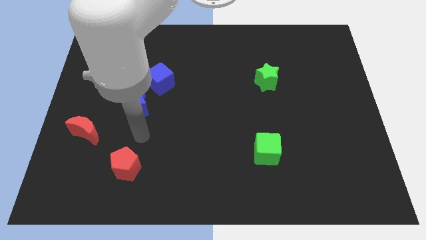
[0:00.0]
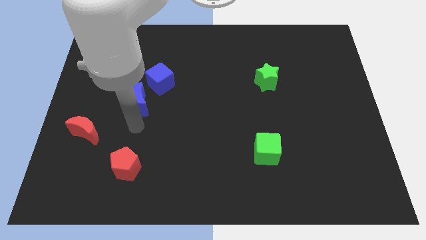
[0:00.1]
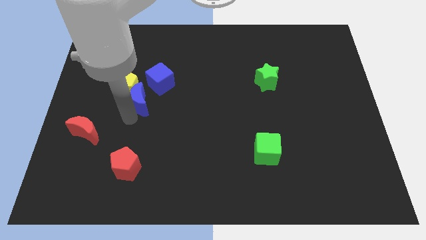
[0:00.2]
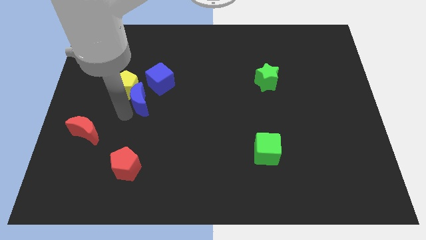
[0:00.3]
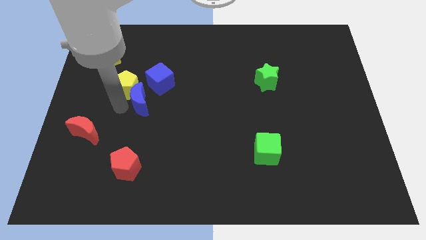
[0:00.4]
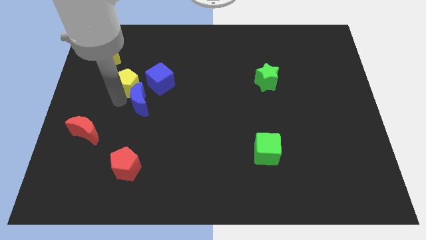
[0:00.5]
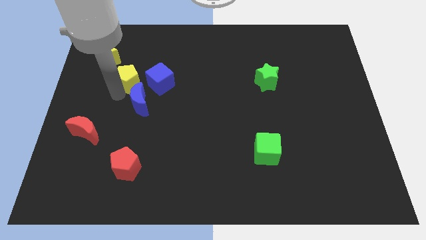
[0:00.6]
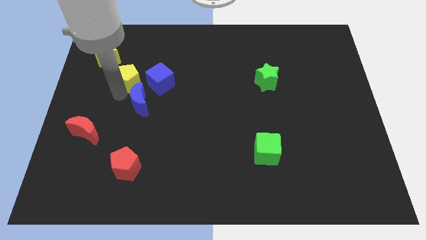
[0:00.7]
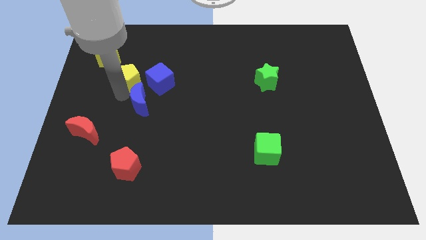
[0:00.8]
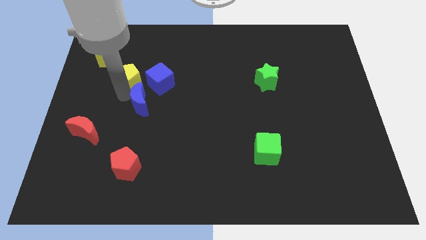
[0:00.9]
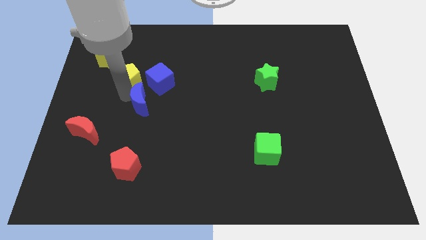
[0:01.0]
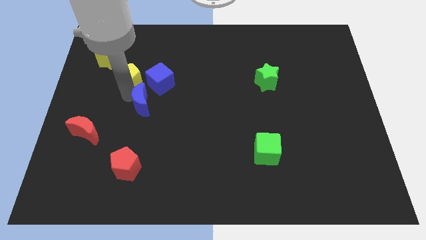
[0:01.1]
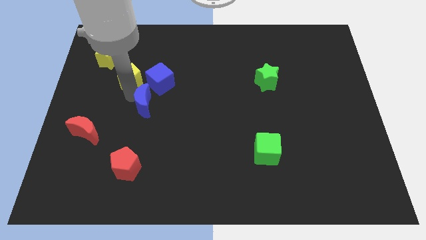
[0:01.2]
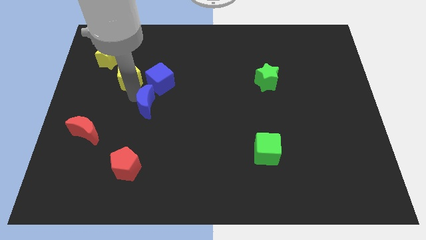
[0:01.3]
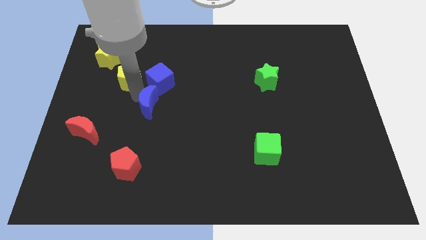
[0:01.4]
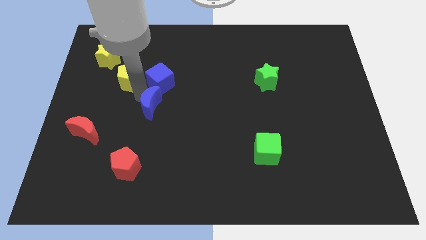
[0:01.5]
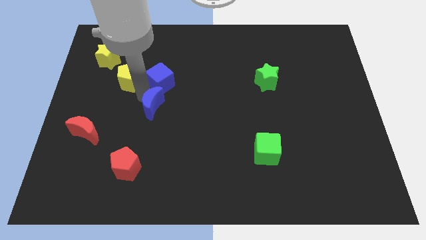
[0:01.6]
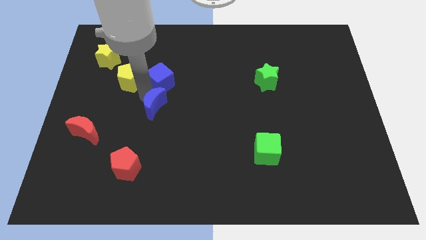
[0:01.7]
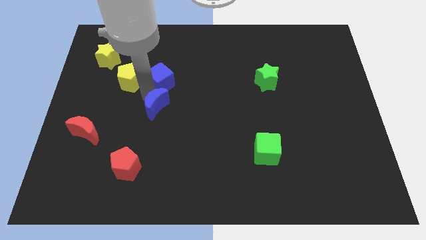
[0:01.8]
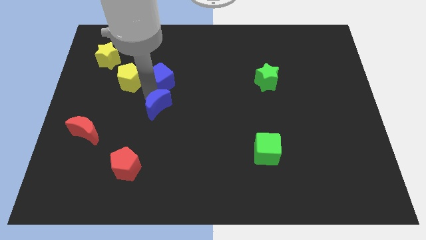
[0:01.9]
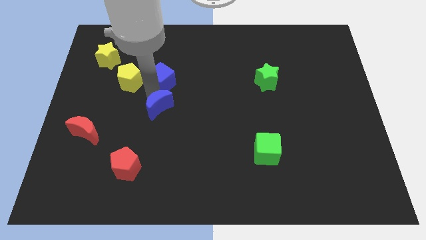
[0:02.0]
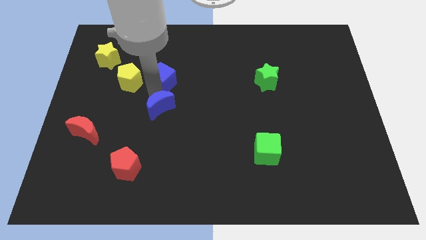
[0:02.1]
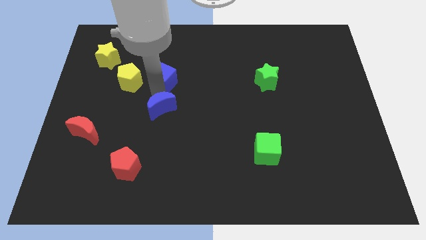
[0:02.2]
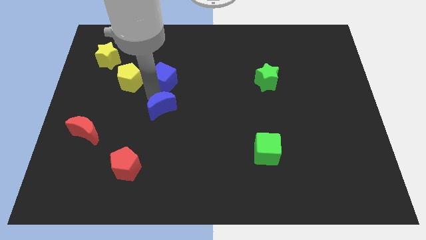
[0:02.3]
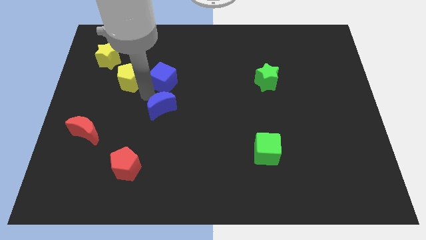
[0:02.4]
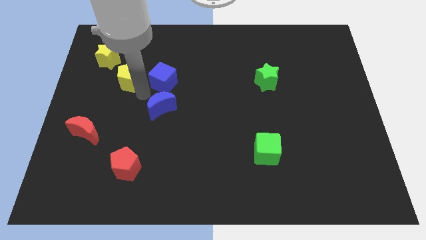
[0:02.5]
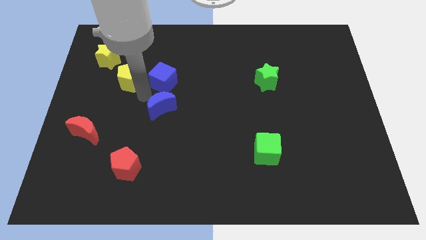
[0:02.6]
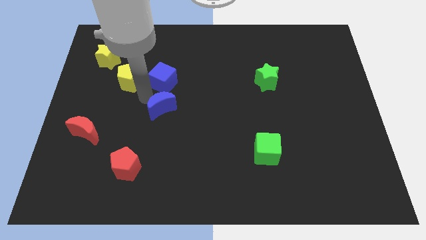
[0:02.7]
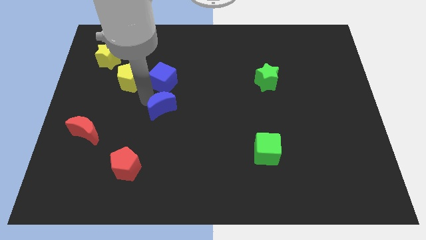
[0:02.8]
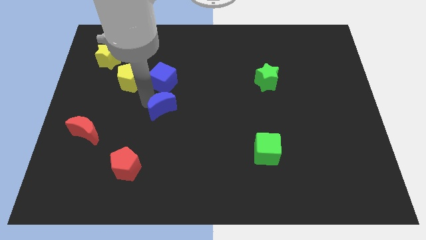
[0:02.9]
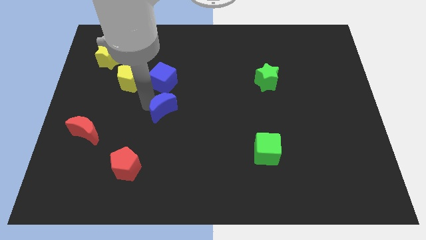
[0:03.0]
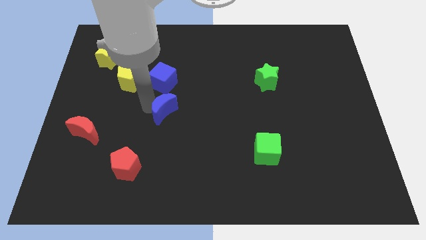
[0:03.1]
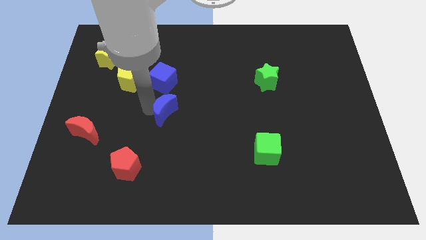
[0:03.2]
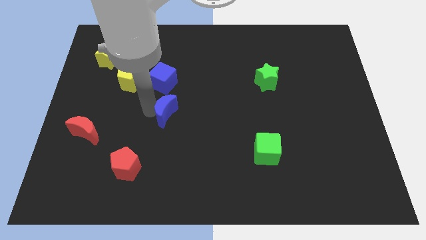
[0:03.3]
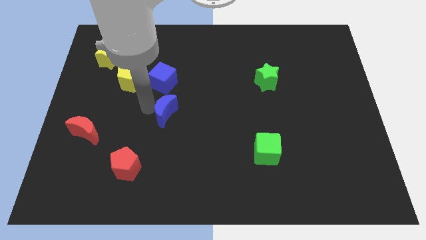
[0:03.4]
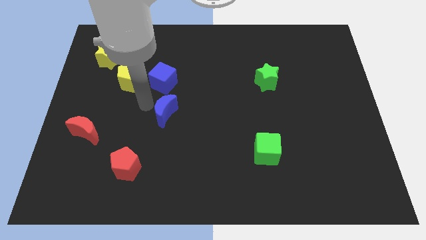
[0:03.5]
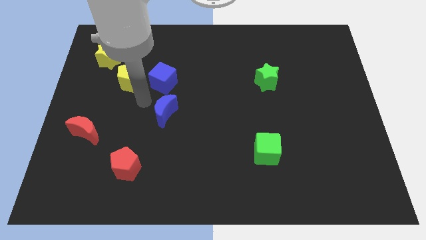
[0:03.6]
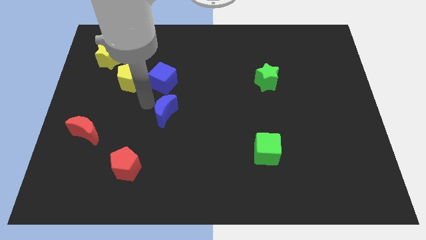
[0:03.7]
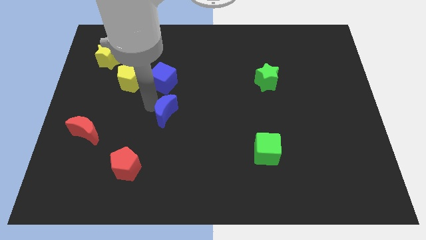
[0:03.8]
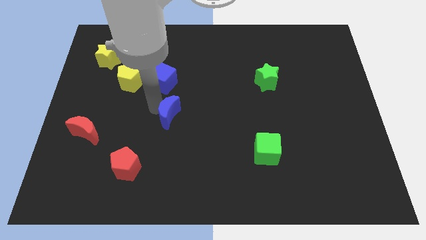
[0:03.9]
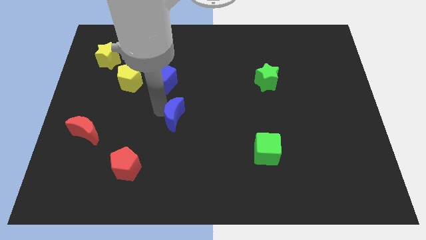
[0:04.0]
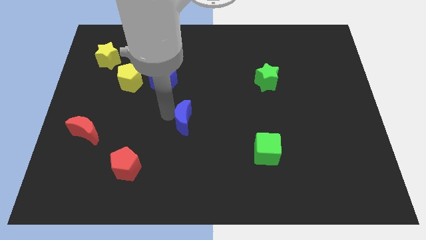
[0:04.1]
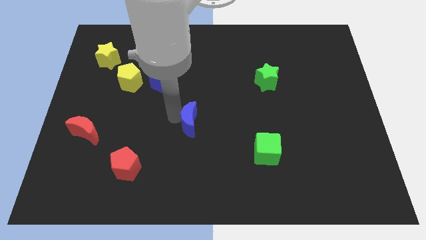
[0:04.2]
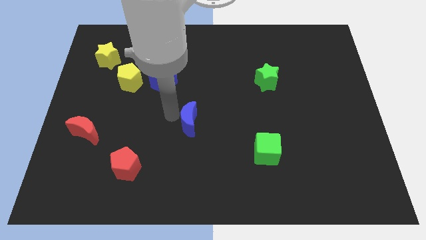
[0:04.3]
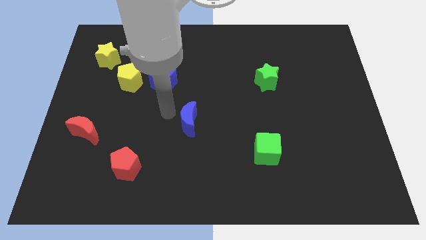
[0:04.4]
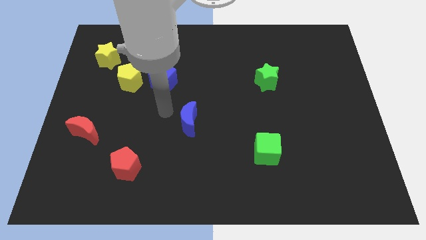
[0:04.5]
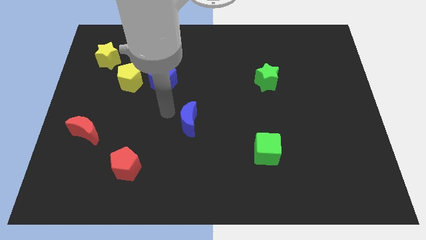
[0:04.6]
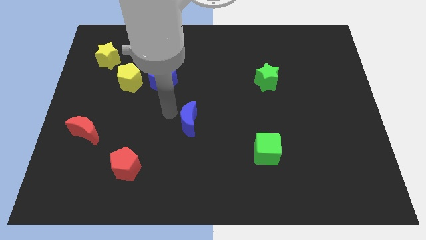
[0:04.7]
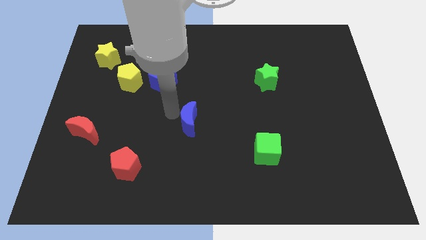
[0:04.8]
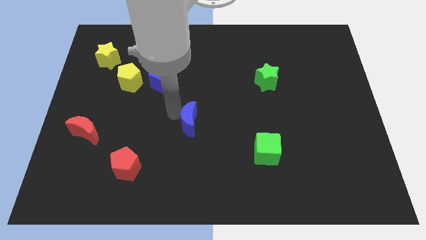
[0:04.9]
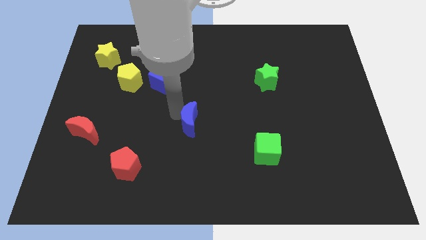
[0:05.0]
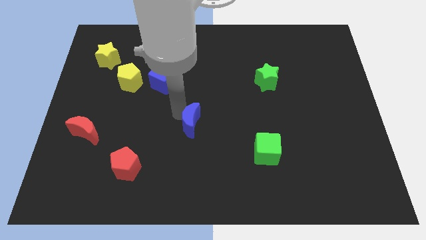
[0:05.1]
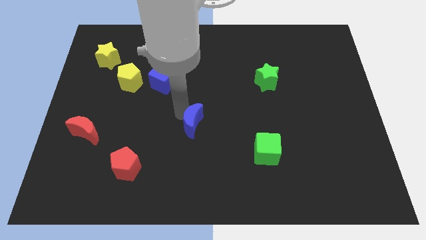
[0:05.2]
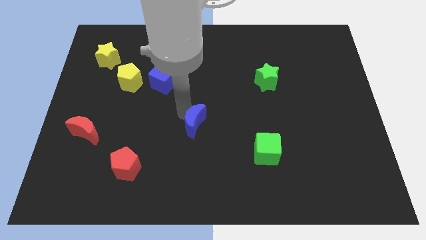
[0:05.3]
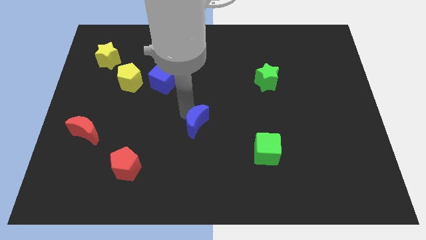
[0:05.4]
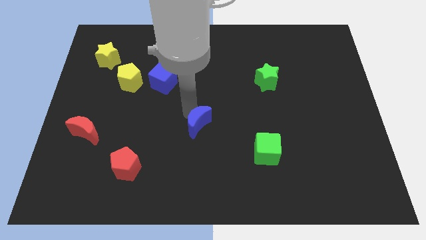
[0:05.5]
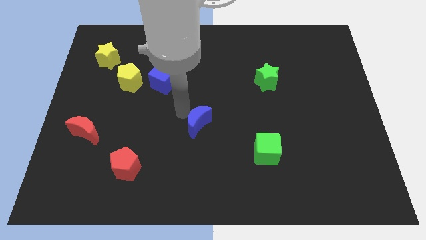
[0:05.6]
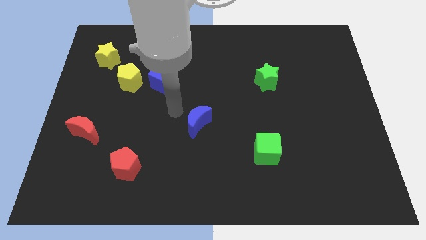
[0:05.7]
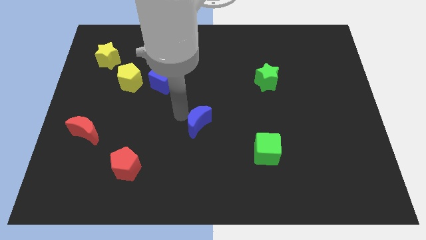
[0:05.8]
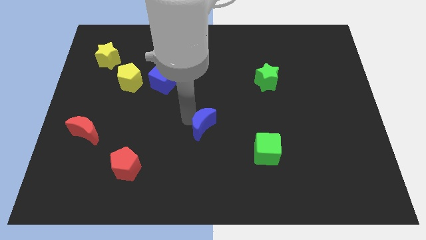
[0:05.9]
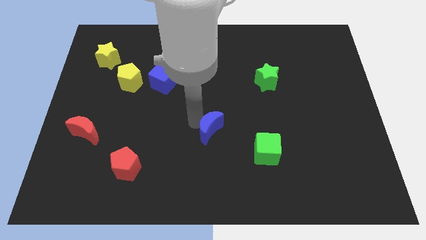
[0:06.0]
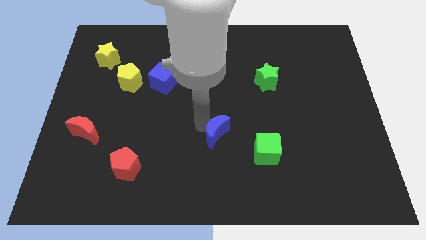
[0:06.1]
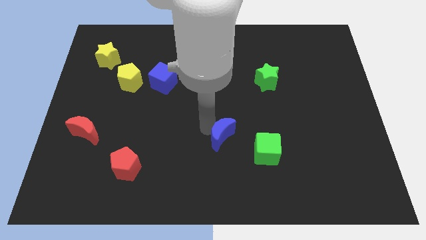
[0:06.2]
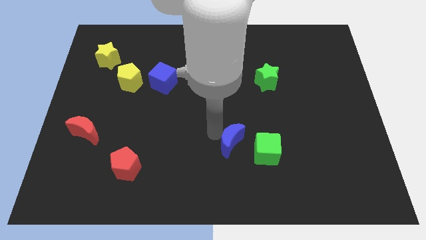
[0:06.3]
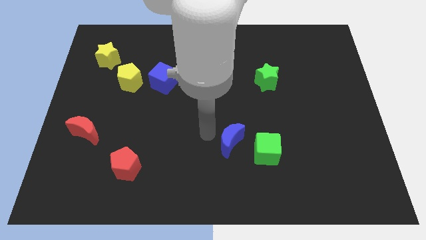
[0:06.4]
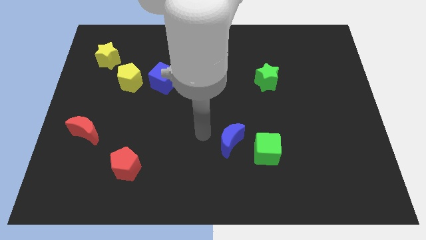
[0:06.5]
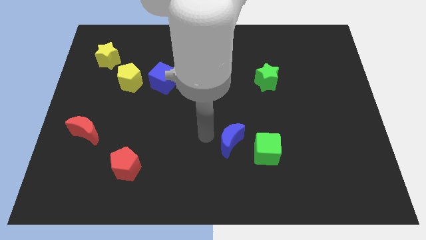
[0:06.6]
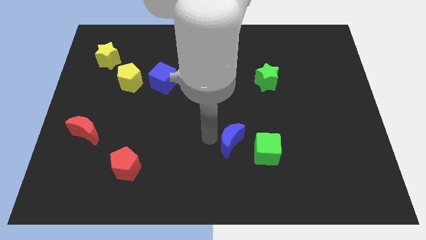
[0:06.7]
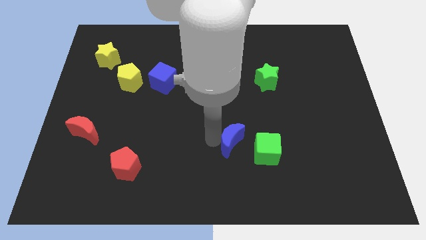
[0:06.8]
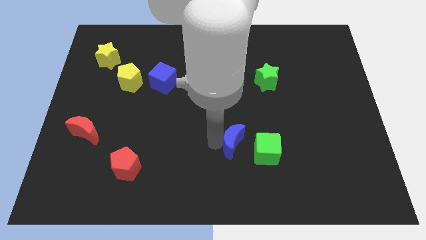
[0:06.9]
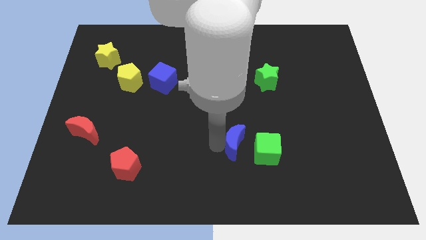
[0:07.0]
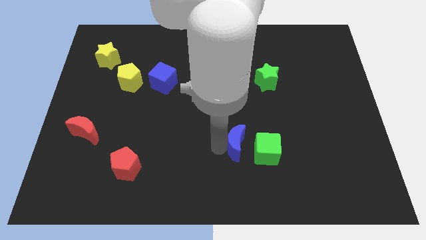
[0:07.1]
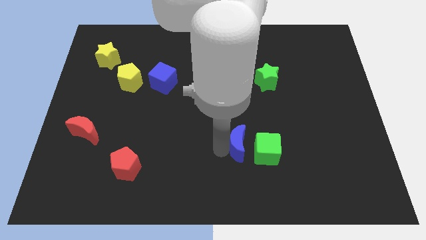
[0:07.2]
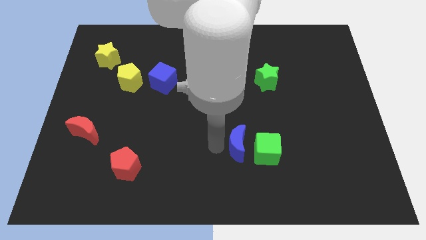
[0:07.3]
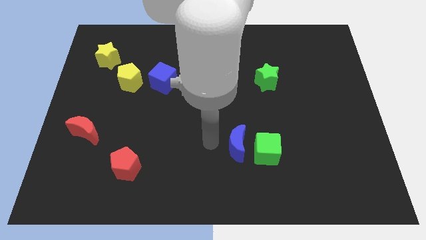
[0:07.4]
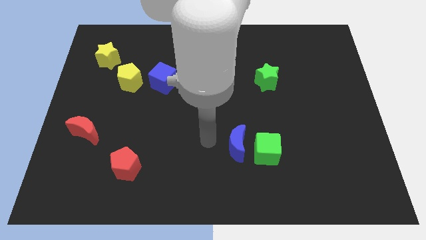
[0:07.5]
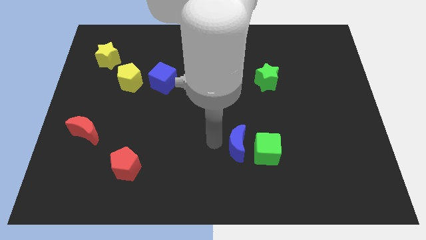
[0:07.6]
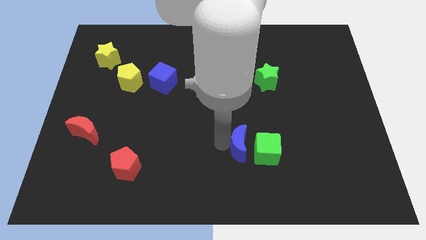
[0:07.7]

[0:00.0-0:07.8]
push the blue moon to the green cube
